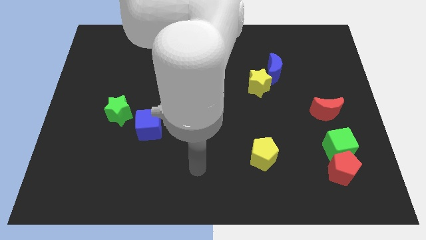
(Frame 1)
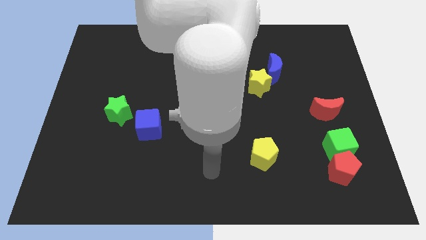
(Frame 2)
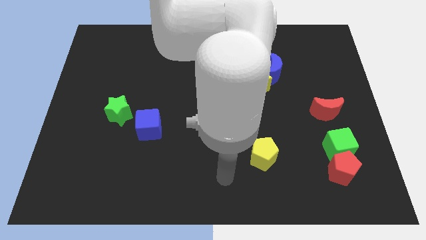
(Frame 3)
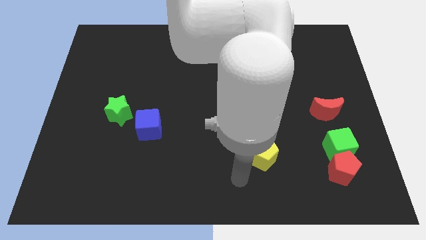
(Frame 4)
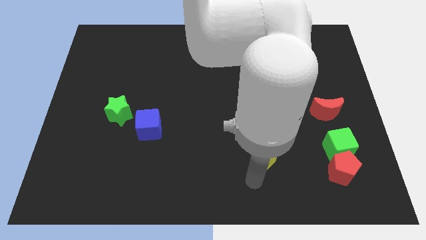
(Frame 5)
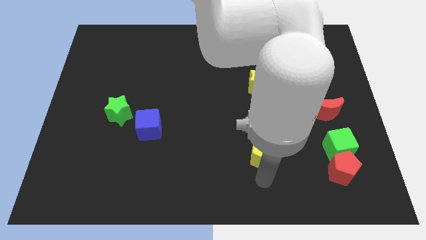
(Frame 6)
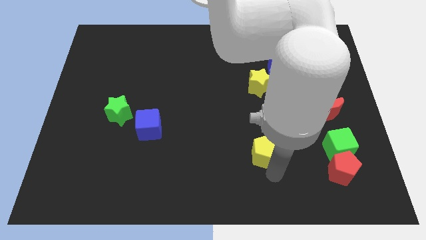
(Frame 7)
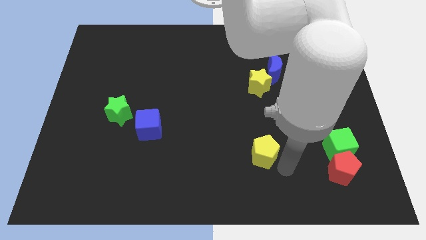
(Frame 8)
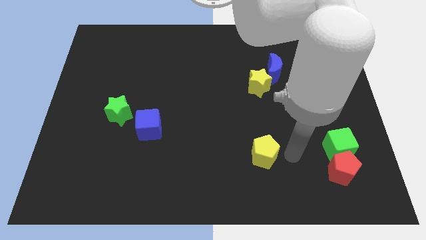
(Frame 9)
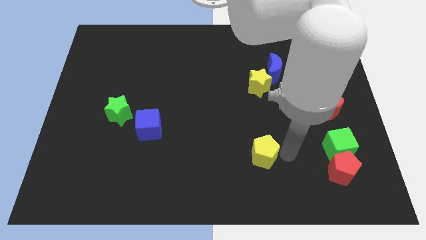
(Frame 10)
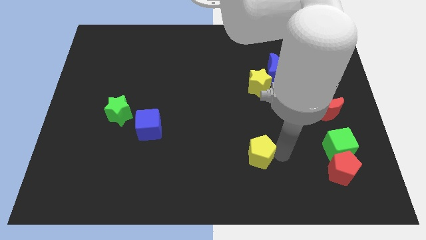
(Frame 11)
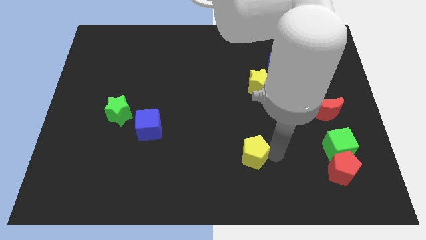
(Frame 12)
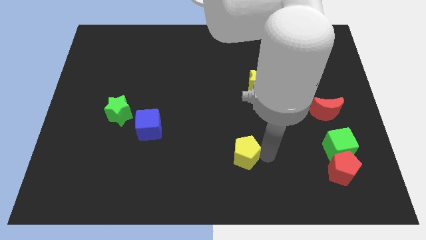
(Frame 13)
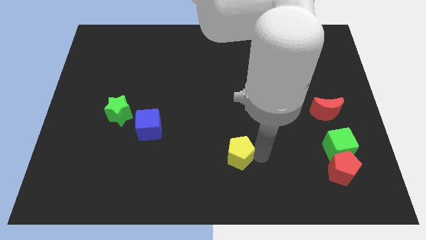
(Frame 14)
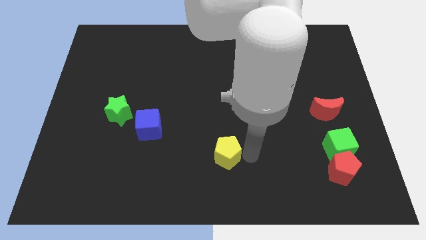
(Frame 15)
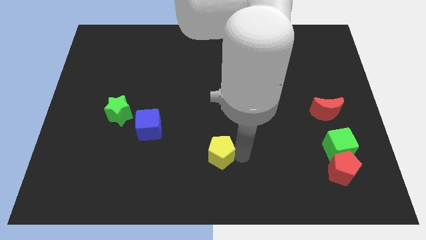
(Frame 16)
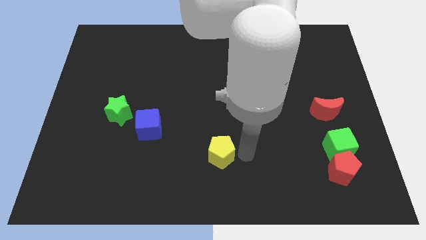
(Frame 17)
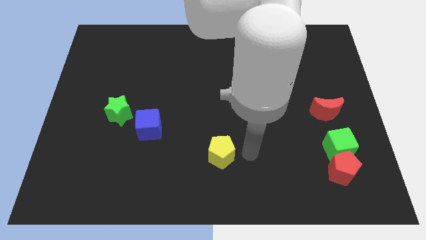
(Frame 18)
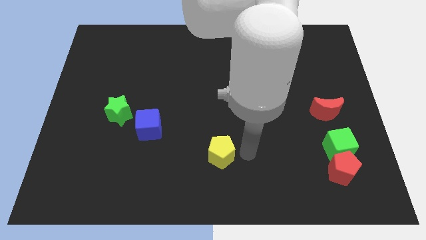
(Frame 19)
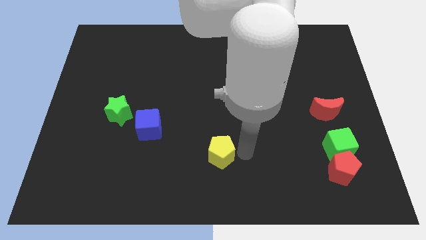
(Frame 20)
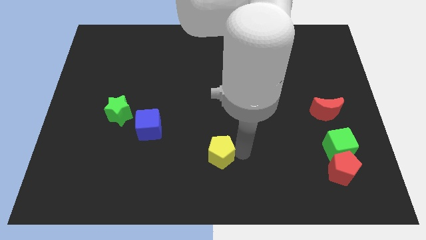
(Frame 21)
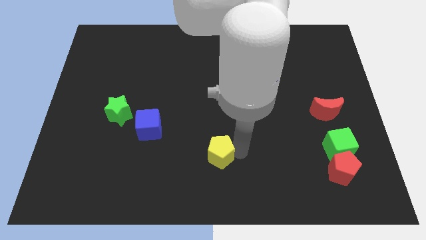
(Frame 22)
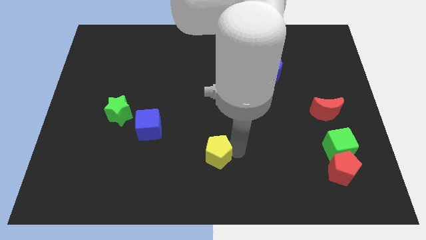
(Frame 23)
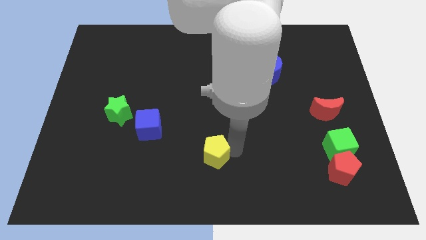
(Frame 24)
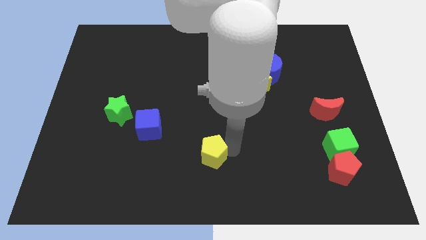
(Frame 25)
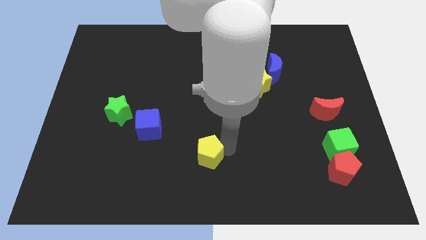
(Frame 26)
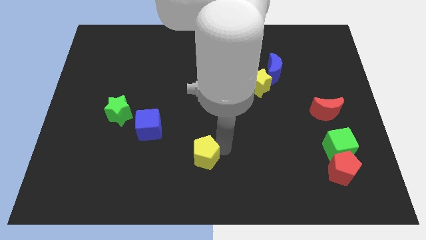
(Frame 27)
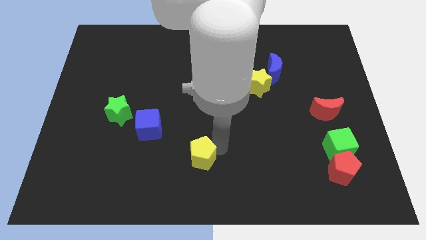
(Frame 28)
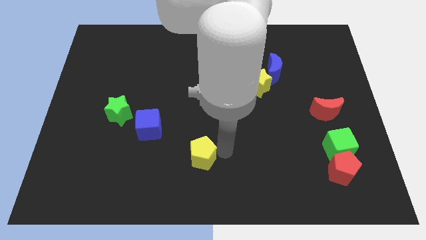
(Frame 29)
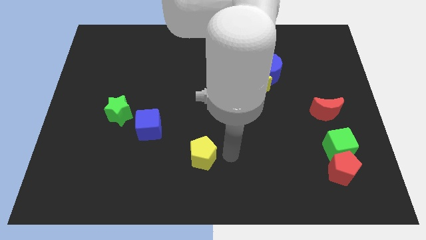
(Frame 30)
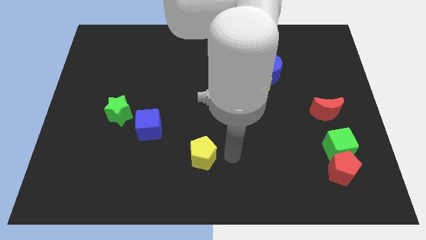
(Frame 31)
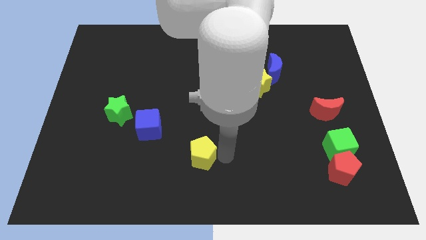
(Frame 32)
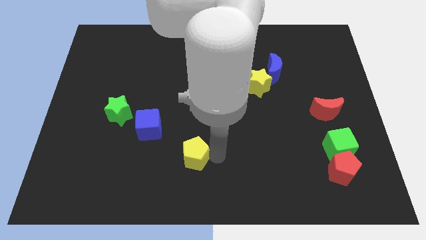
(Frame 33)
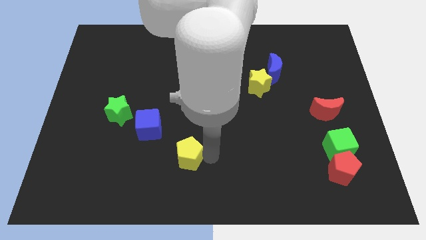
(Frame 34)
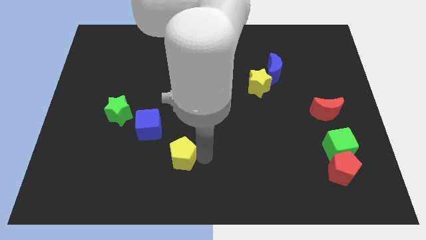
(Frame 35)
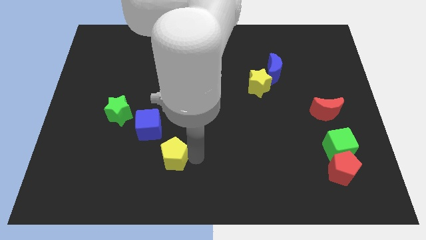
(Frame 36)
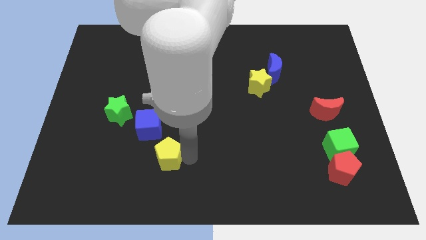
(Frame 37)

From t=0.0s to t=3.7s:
push the yellow pentagon left

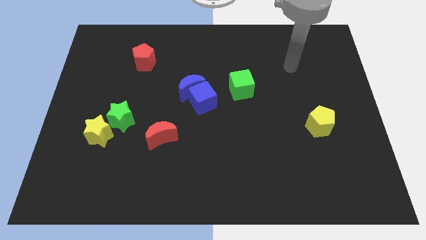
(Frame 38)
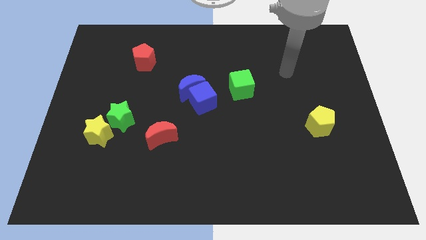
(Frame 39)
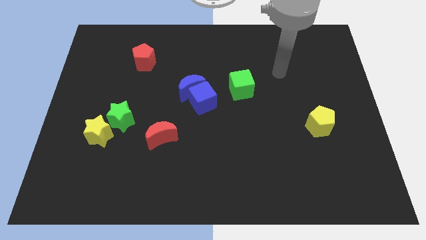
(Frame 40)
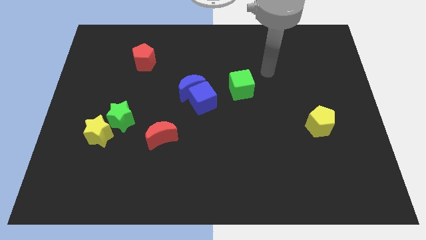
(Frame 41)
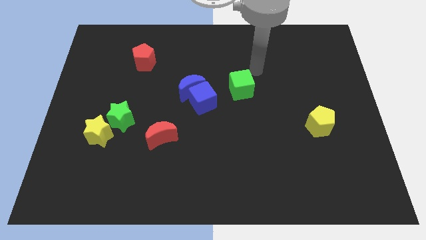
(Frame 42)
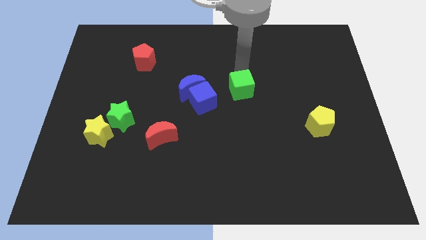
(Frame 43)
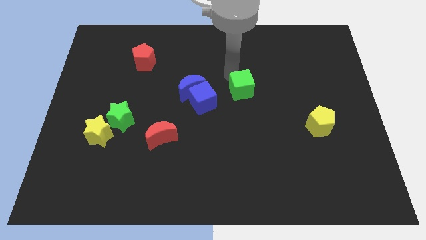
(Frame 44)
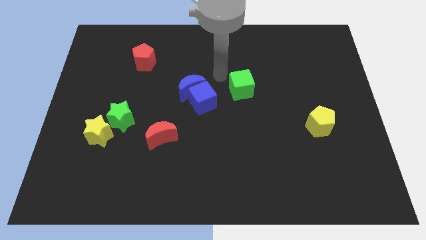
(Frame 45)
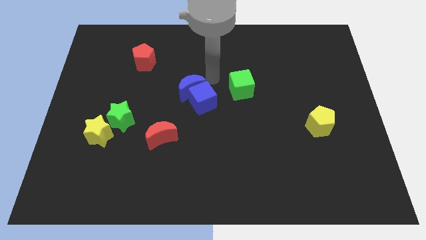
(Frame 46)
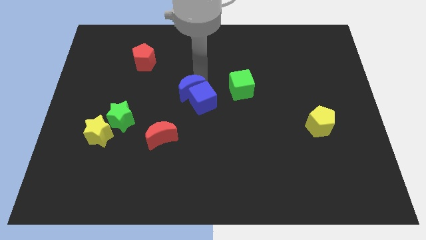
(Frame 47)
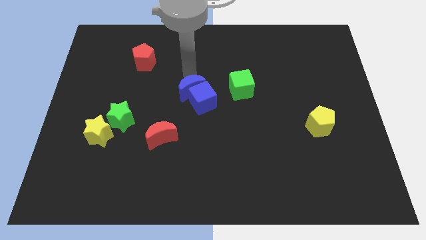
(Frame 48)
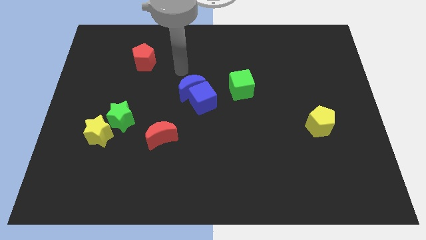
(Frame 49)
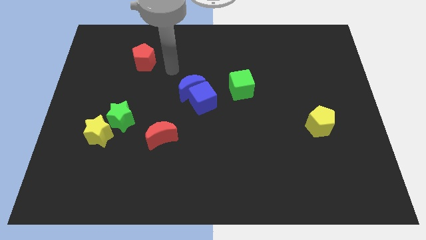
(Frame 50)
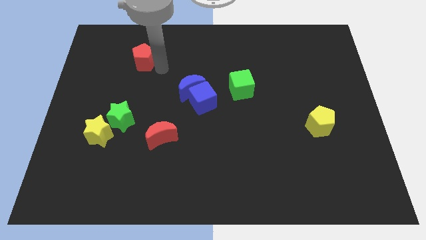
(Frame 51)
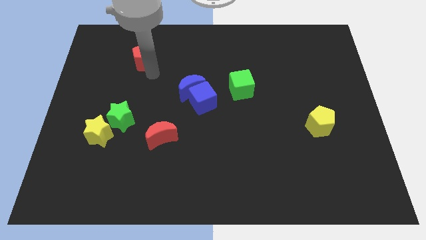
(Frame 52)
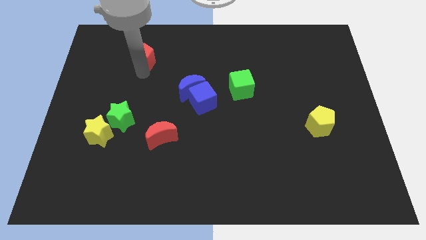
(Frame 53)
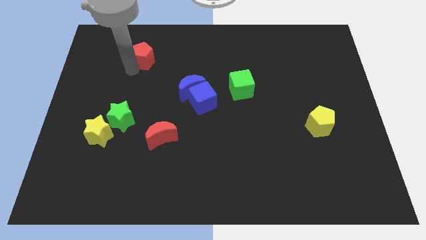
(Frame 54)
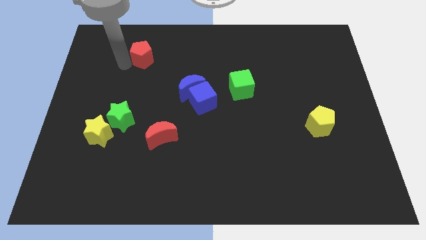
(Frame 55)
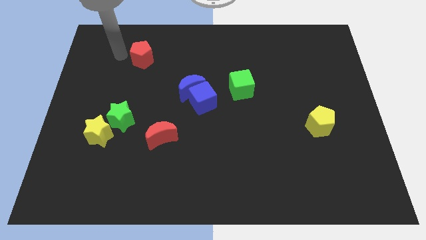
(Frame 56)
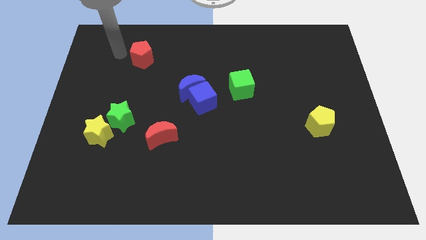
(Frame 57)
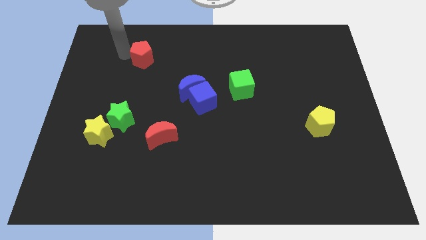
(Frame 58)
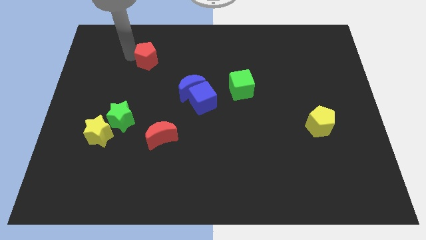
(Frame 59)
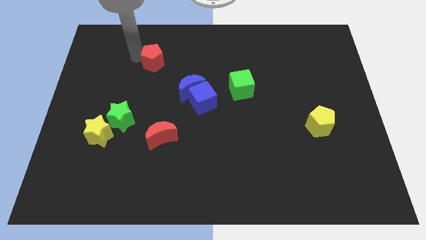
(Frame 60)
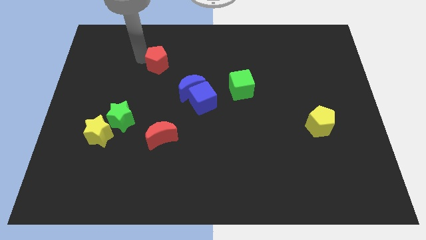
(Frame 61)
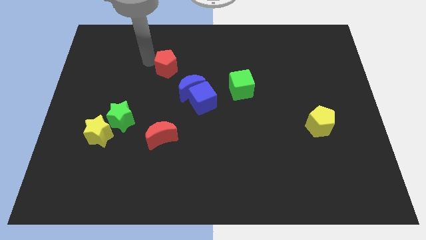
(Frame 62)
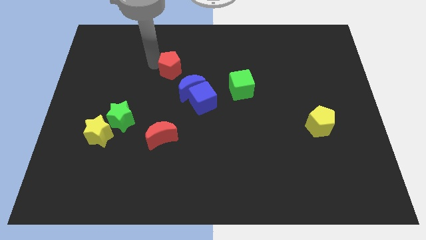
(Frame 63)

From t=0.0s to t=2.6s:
slide the red pentagon right a bit

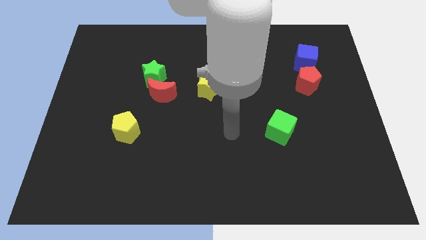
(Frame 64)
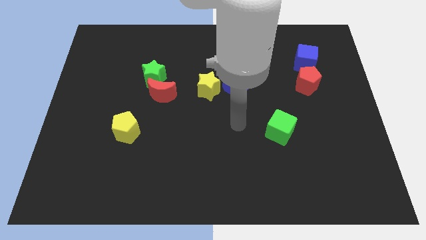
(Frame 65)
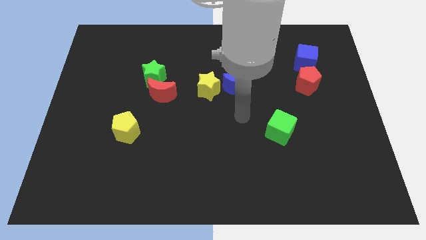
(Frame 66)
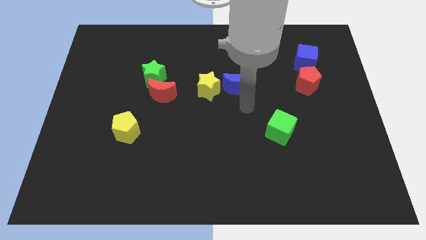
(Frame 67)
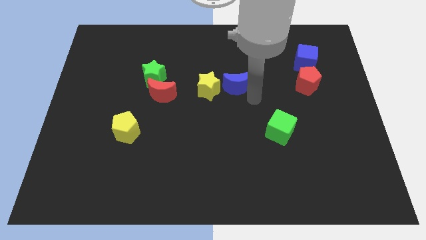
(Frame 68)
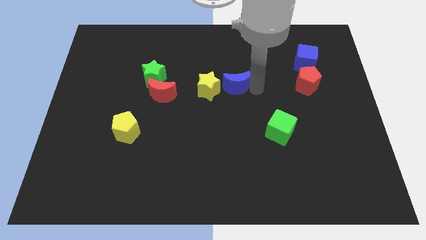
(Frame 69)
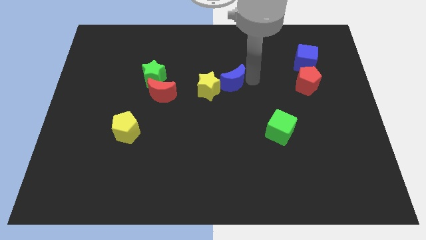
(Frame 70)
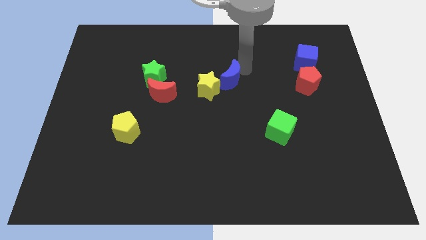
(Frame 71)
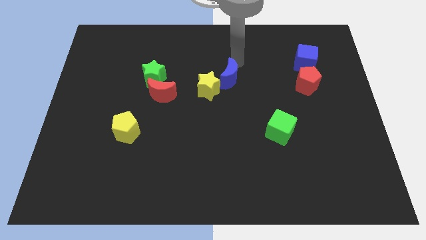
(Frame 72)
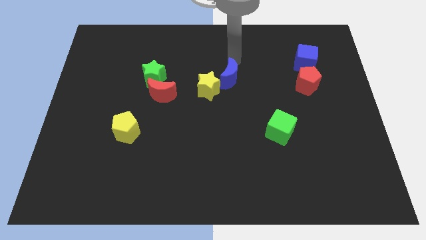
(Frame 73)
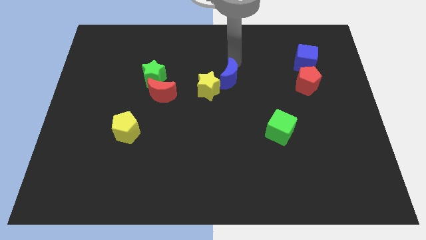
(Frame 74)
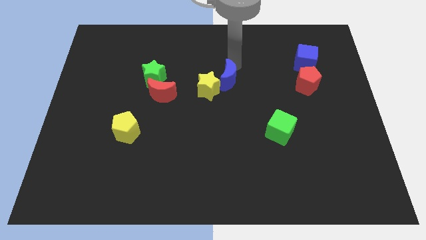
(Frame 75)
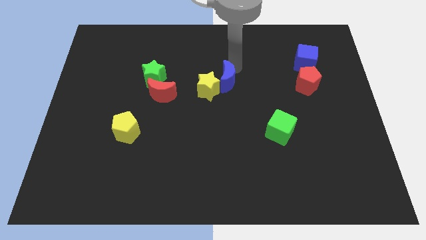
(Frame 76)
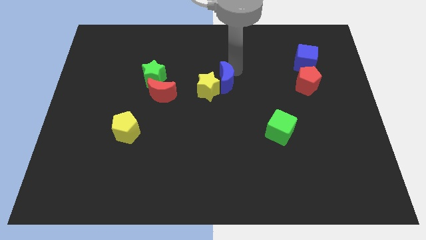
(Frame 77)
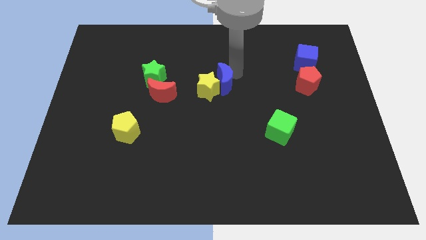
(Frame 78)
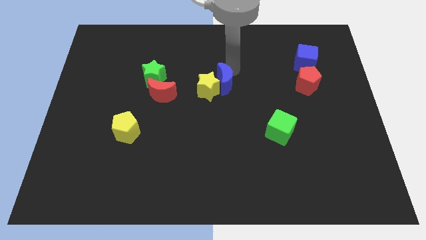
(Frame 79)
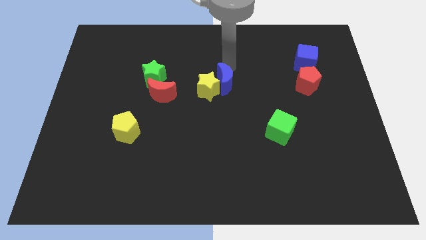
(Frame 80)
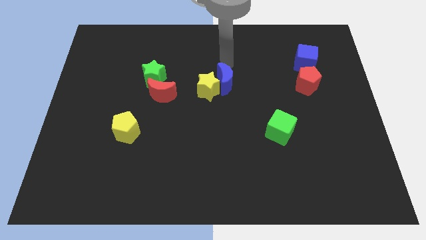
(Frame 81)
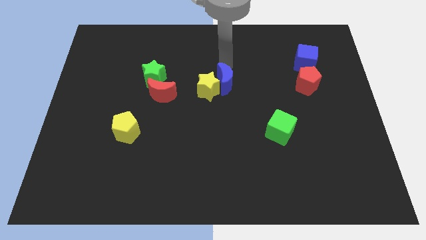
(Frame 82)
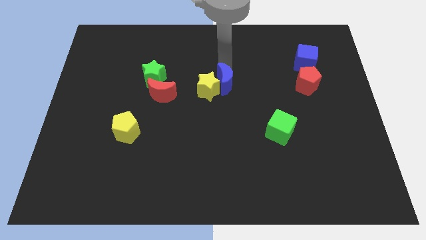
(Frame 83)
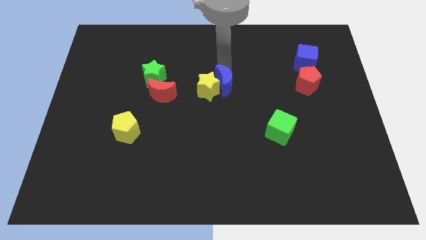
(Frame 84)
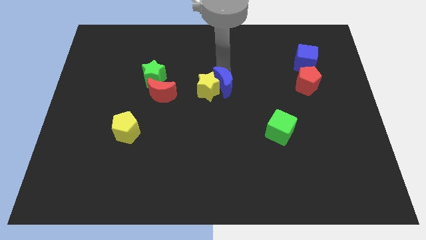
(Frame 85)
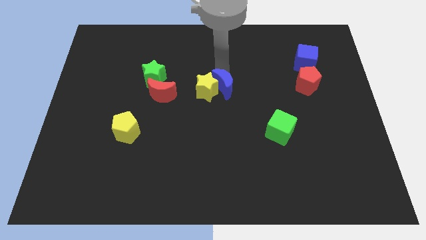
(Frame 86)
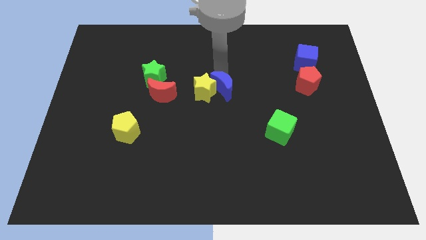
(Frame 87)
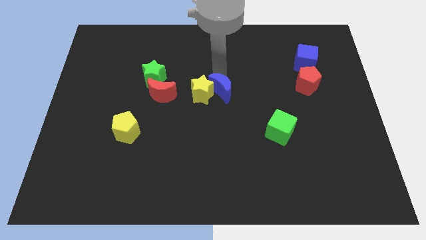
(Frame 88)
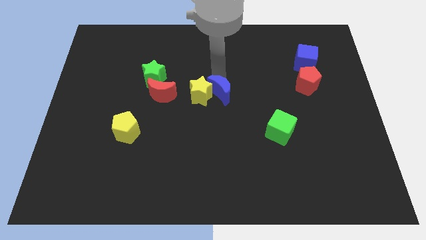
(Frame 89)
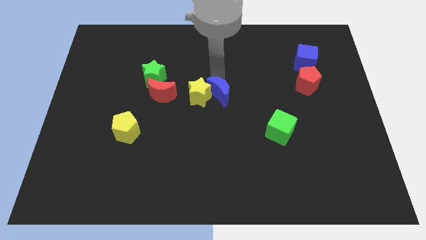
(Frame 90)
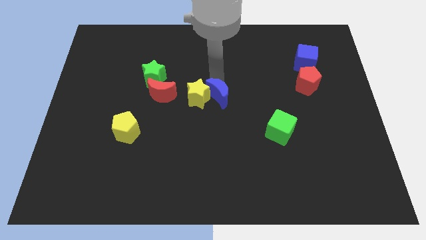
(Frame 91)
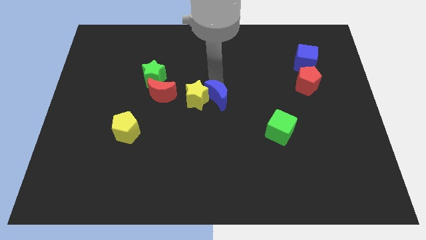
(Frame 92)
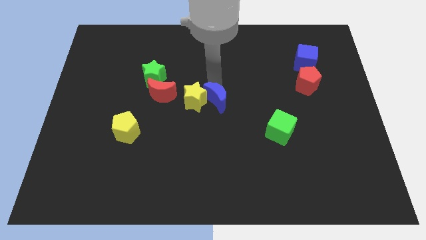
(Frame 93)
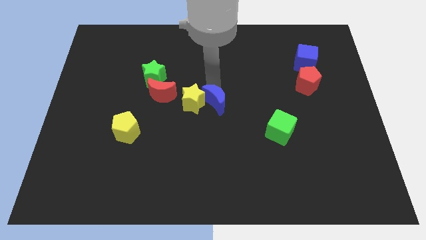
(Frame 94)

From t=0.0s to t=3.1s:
slide the blue moon somewhat downwards and to the left
